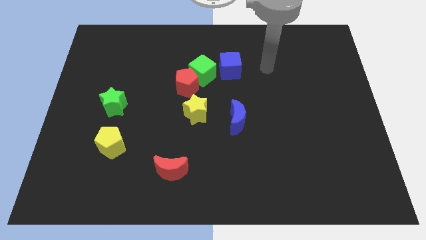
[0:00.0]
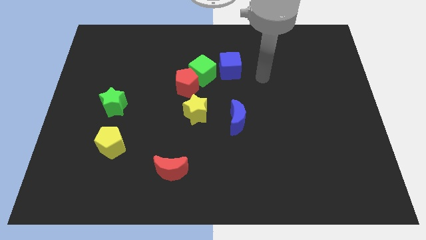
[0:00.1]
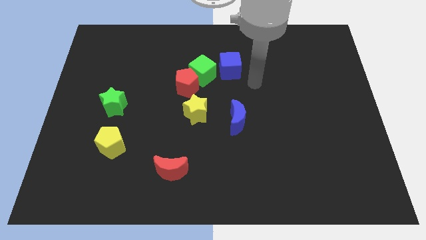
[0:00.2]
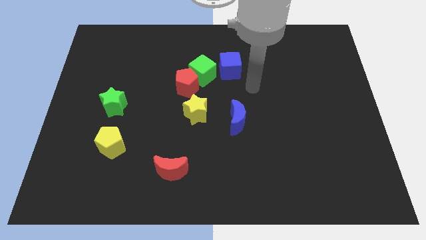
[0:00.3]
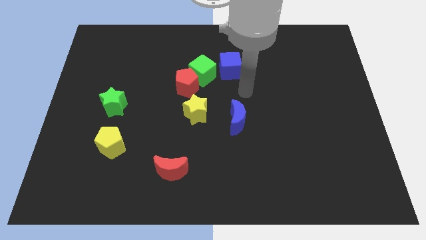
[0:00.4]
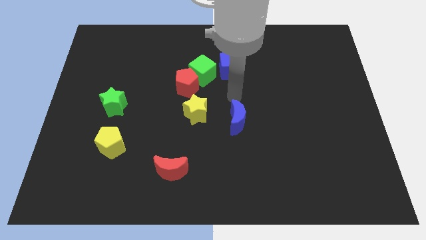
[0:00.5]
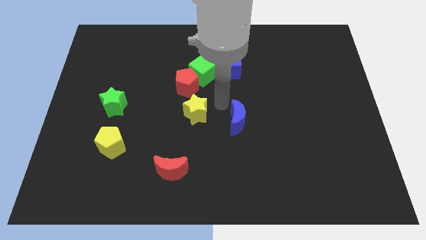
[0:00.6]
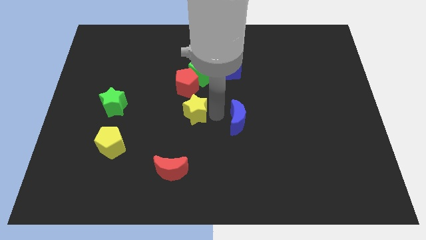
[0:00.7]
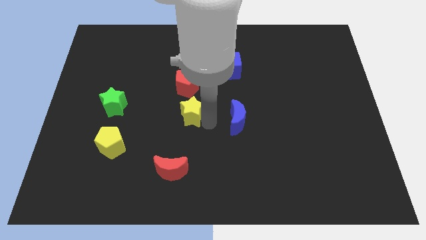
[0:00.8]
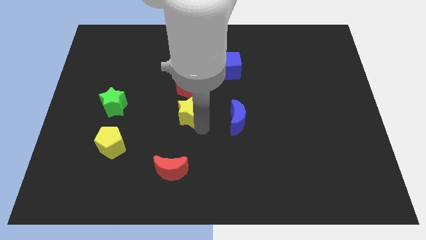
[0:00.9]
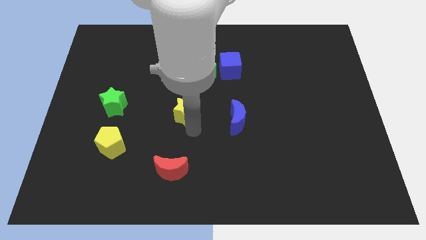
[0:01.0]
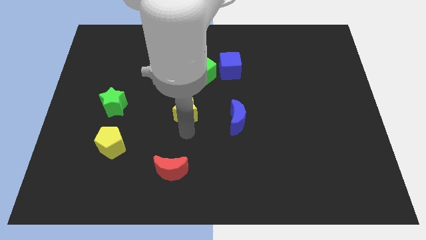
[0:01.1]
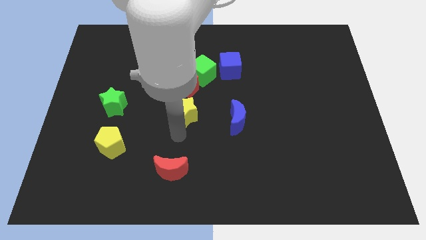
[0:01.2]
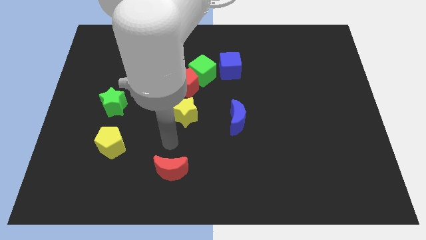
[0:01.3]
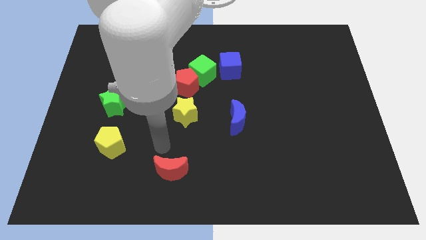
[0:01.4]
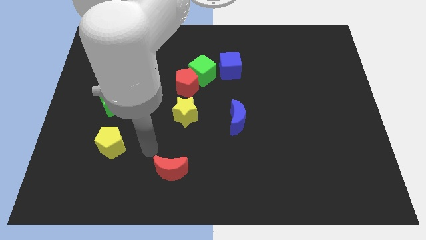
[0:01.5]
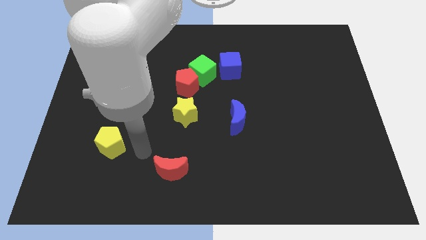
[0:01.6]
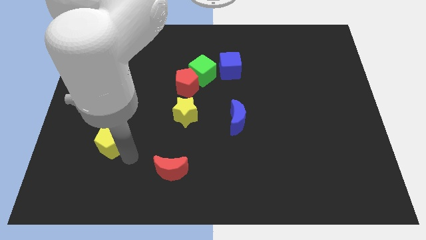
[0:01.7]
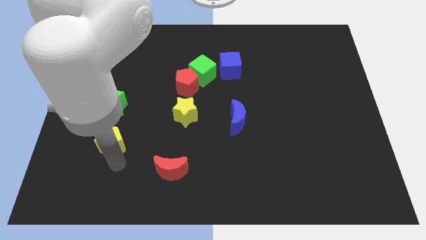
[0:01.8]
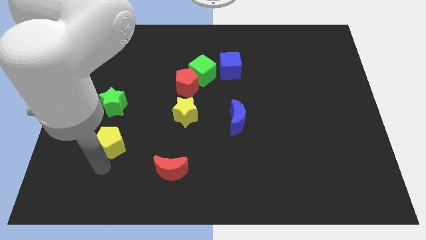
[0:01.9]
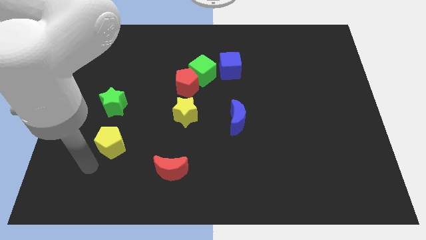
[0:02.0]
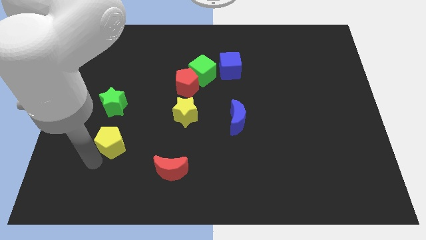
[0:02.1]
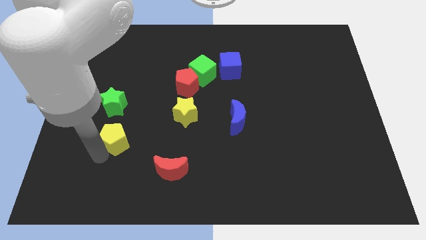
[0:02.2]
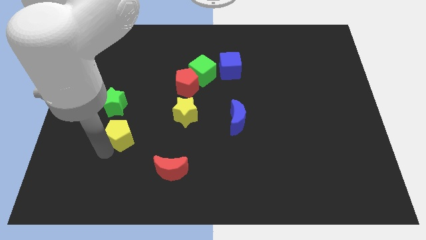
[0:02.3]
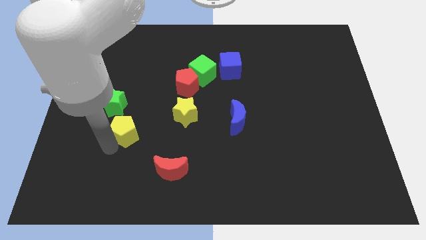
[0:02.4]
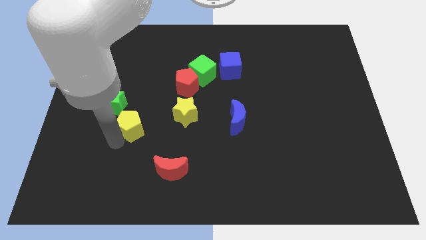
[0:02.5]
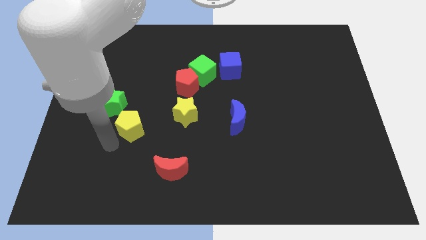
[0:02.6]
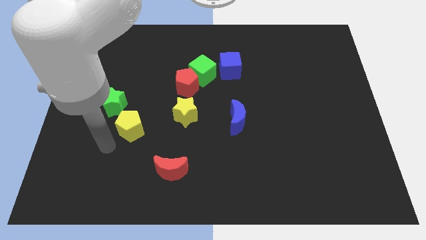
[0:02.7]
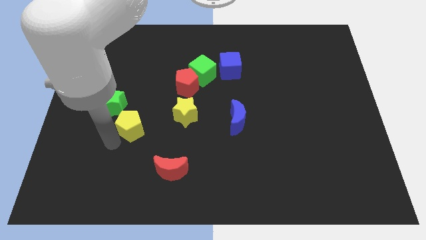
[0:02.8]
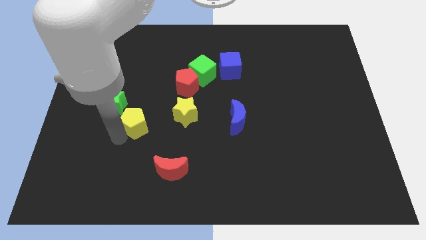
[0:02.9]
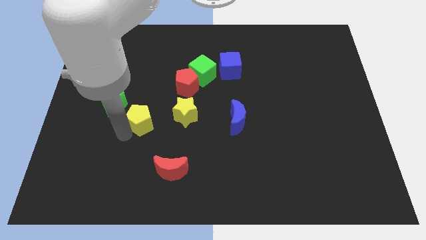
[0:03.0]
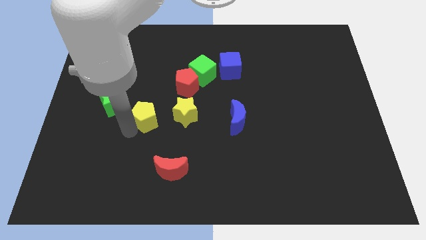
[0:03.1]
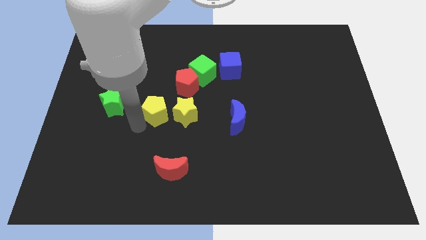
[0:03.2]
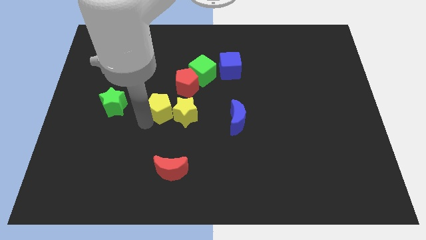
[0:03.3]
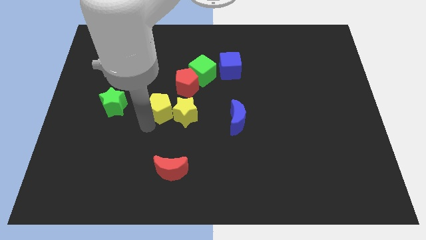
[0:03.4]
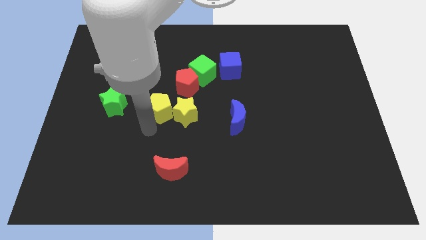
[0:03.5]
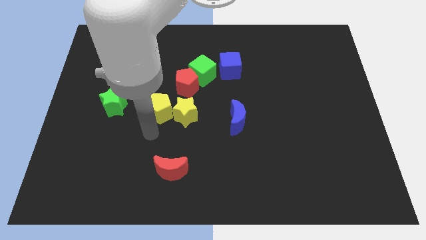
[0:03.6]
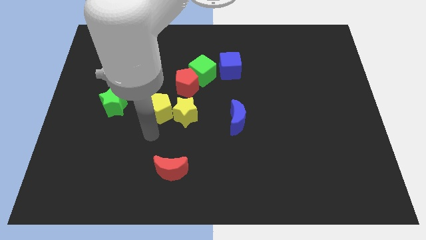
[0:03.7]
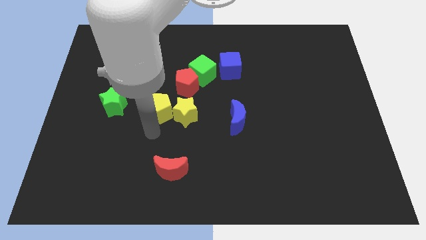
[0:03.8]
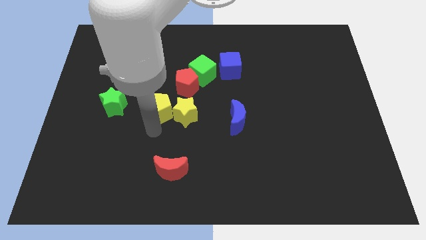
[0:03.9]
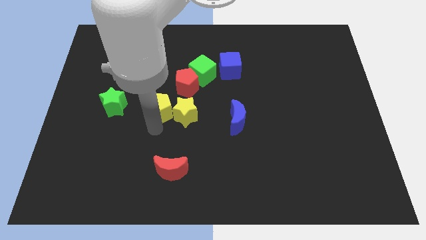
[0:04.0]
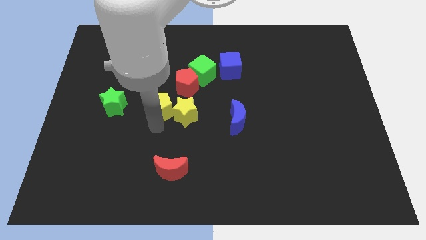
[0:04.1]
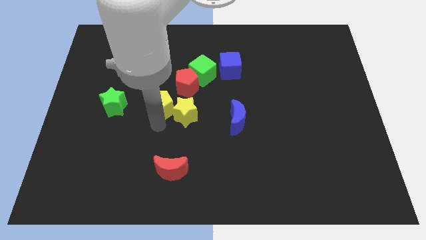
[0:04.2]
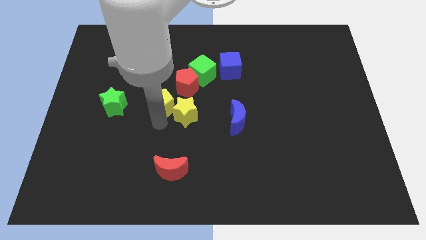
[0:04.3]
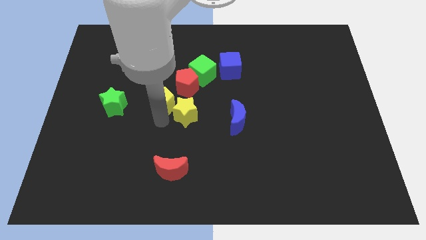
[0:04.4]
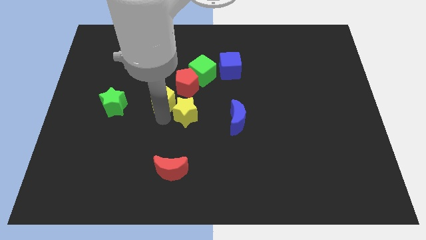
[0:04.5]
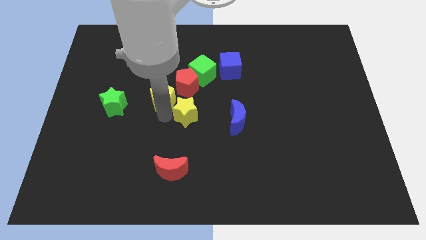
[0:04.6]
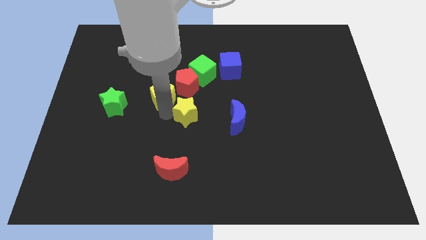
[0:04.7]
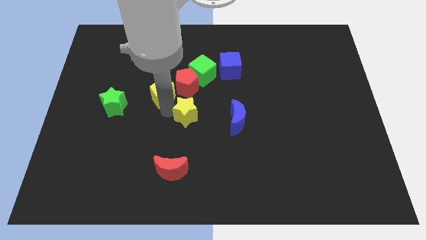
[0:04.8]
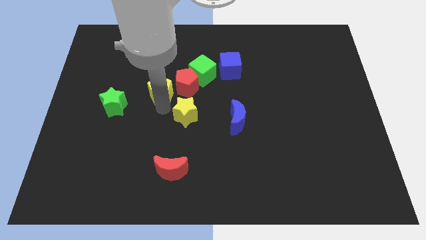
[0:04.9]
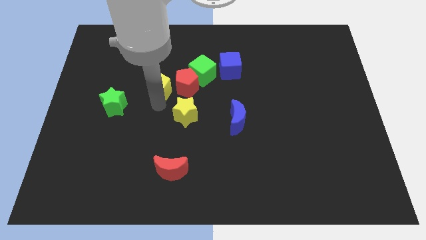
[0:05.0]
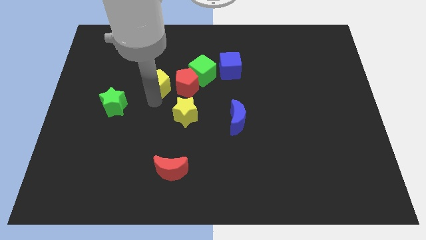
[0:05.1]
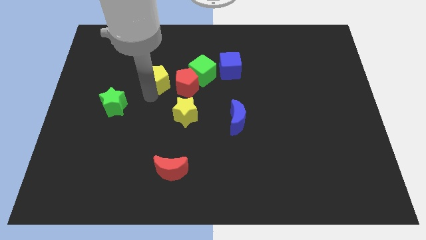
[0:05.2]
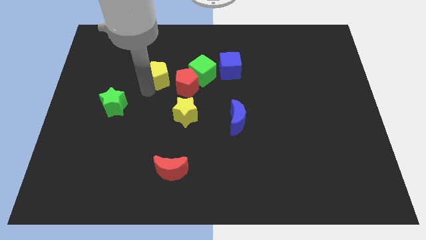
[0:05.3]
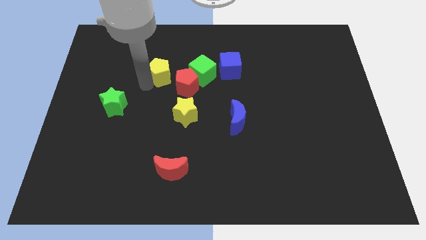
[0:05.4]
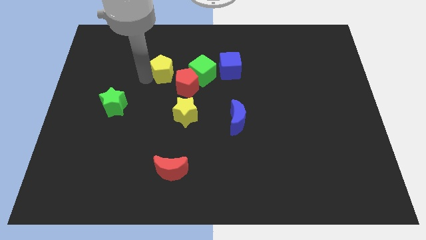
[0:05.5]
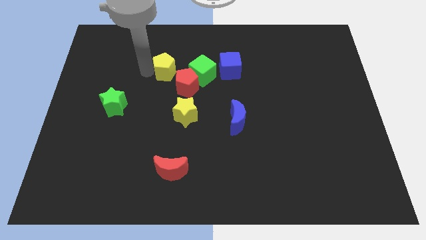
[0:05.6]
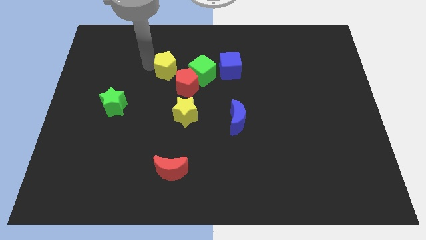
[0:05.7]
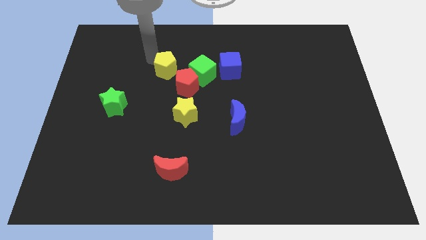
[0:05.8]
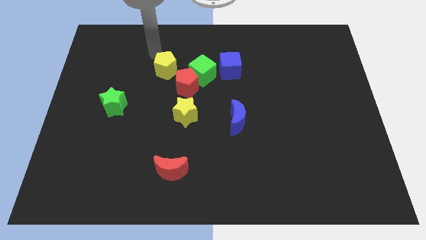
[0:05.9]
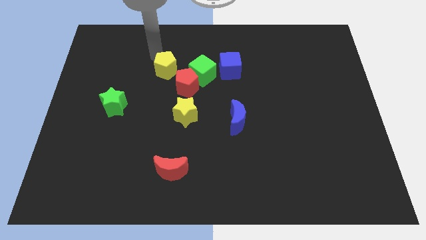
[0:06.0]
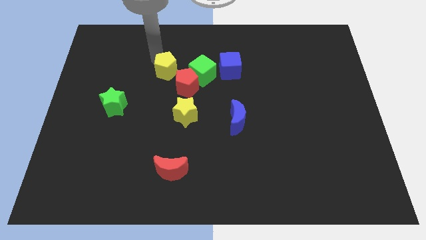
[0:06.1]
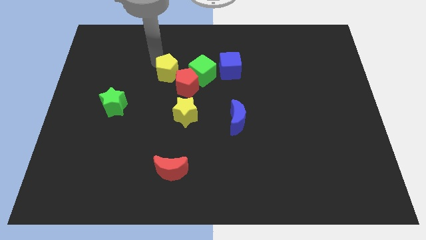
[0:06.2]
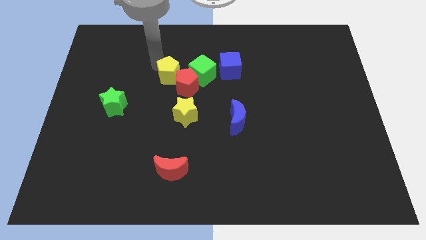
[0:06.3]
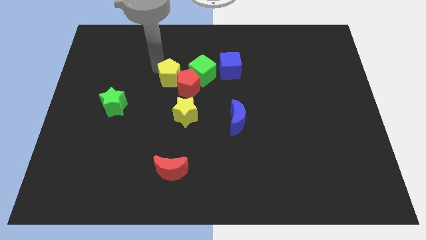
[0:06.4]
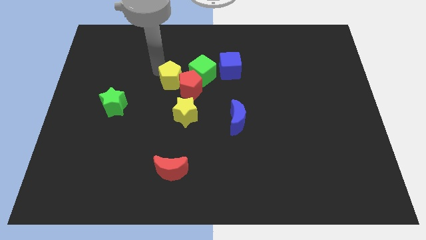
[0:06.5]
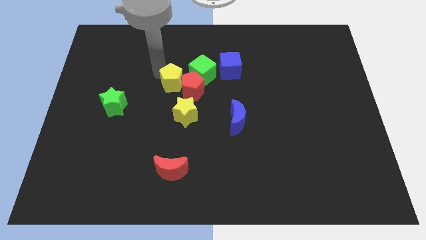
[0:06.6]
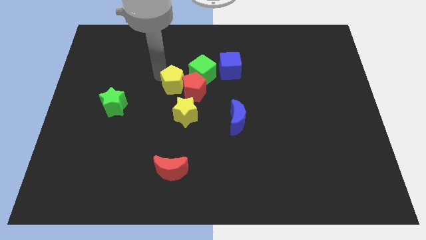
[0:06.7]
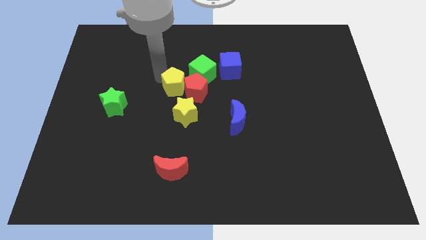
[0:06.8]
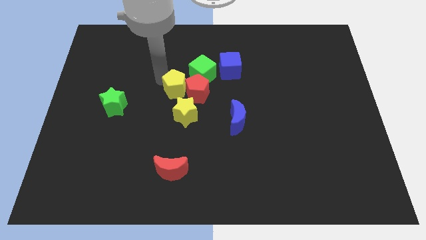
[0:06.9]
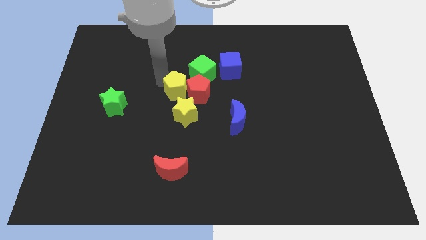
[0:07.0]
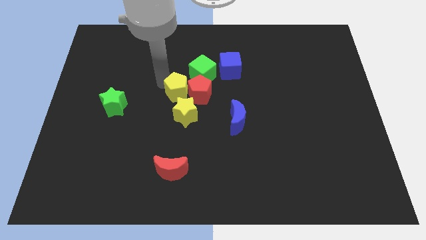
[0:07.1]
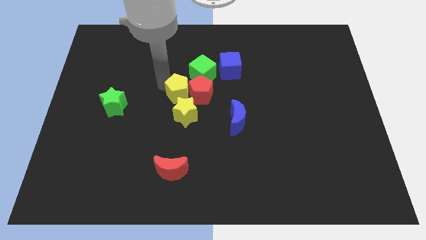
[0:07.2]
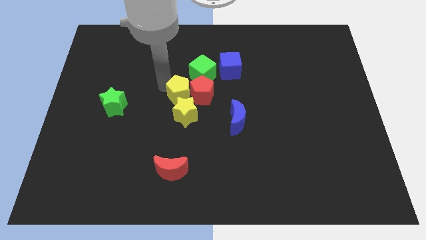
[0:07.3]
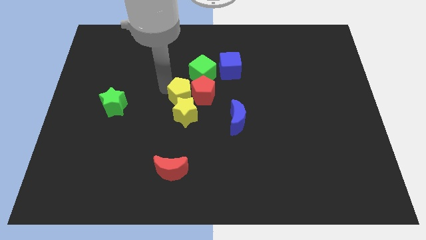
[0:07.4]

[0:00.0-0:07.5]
move the yellow pentagon to the top right side of the yellow star

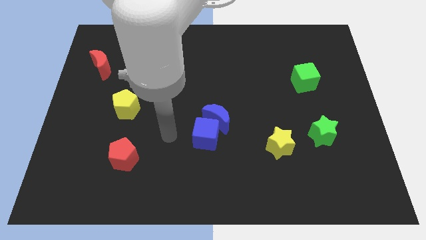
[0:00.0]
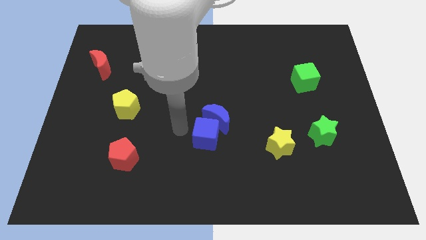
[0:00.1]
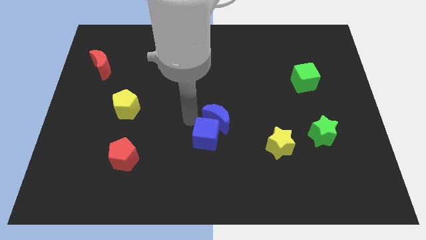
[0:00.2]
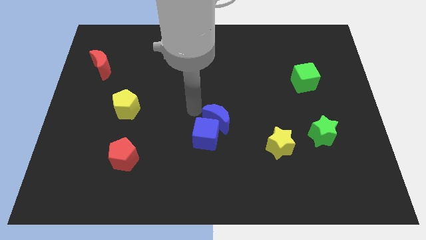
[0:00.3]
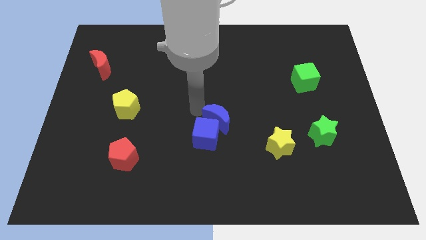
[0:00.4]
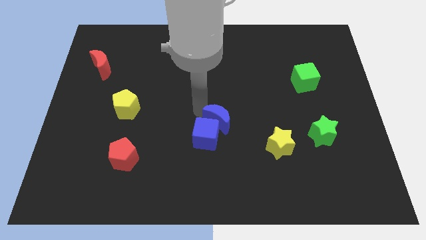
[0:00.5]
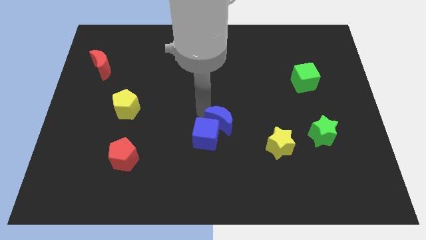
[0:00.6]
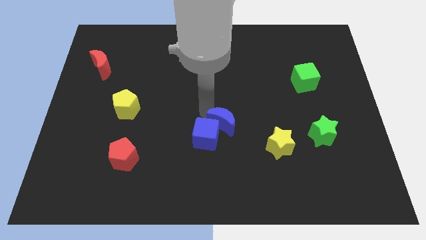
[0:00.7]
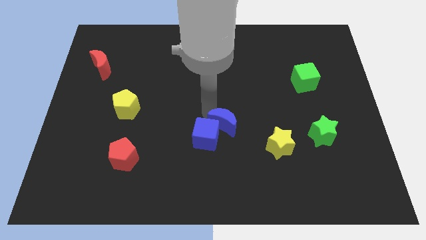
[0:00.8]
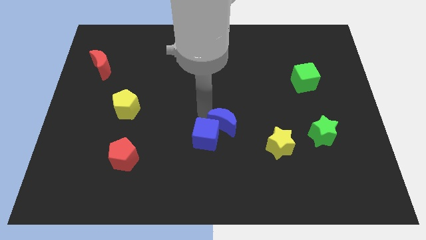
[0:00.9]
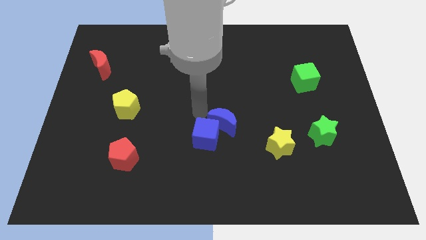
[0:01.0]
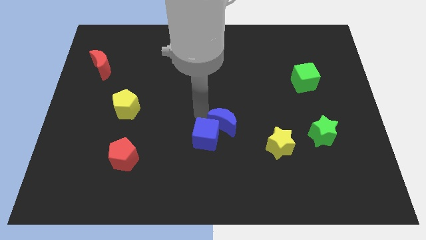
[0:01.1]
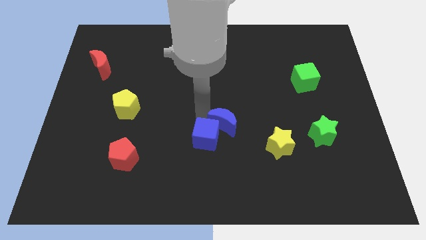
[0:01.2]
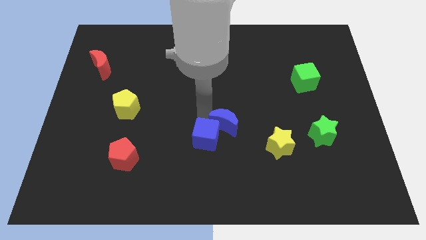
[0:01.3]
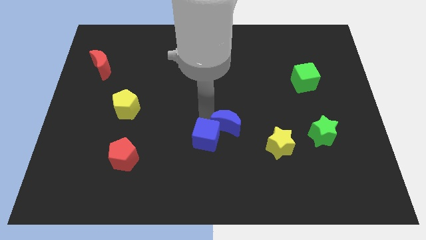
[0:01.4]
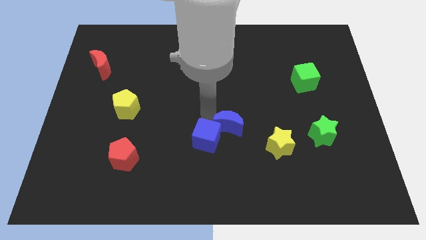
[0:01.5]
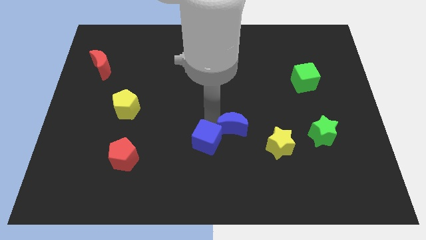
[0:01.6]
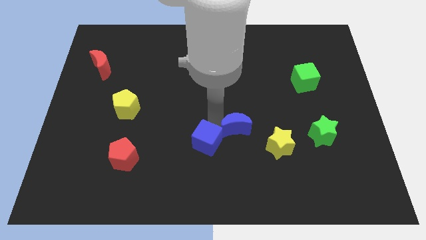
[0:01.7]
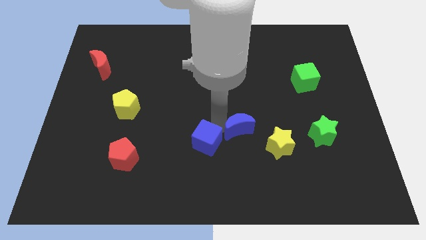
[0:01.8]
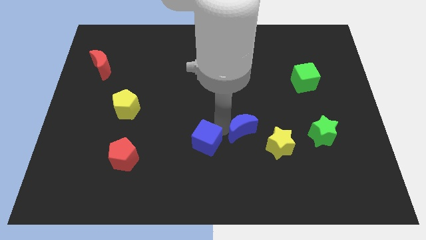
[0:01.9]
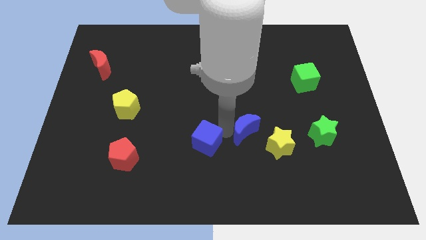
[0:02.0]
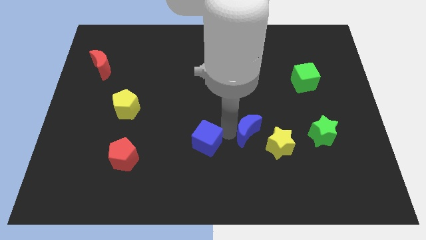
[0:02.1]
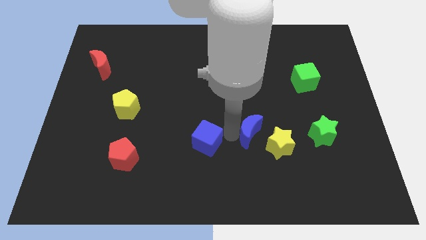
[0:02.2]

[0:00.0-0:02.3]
push the blue moon just left of the green star
